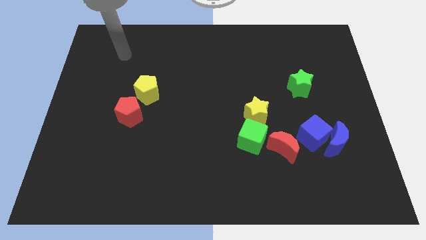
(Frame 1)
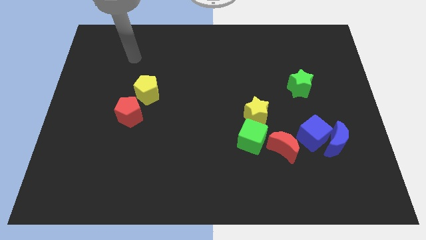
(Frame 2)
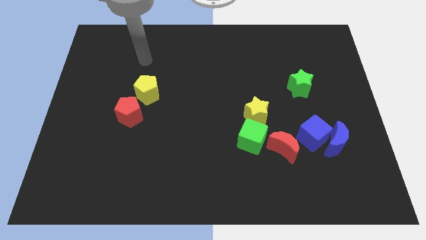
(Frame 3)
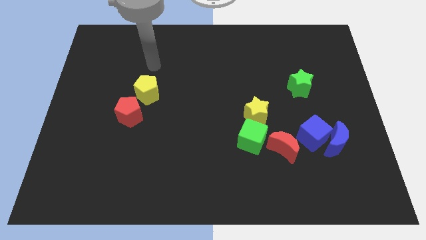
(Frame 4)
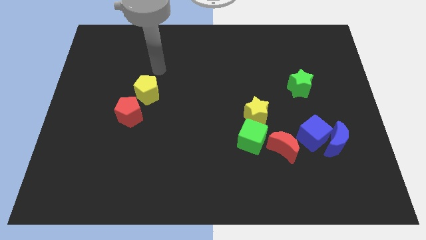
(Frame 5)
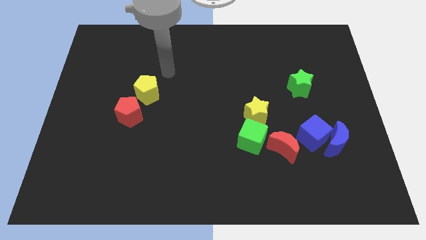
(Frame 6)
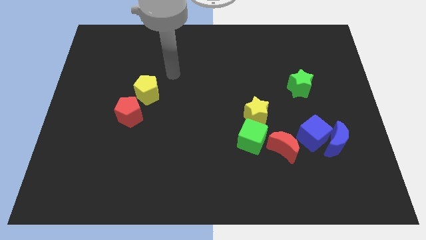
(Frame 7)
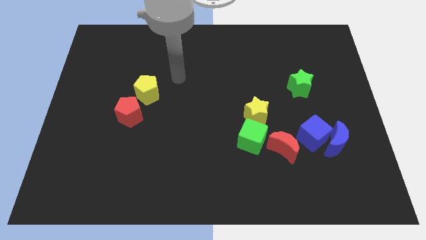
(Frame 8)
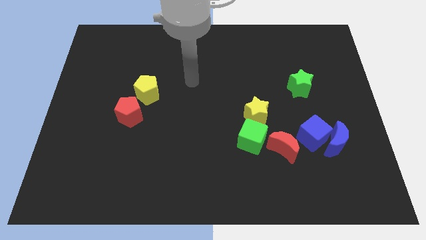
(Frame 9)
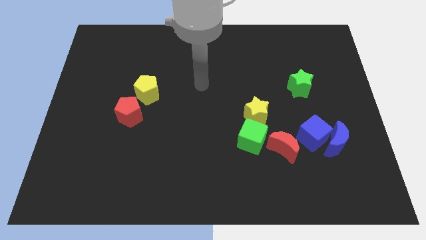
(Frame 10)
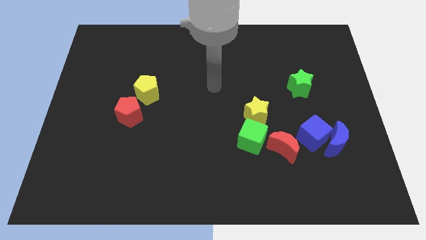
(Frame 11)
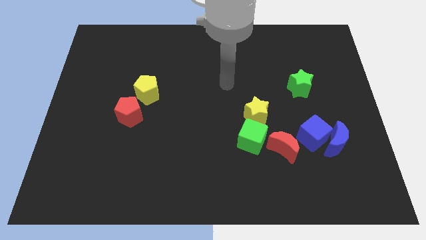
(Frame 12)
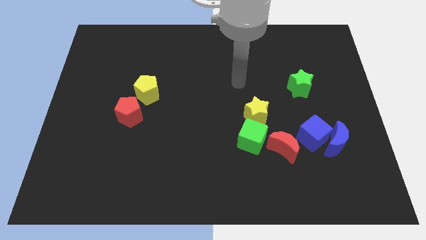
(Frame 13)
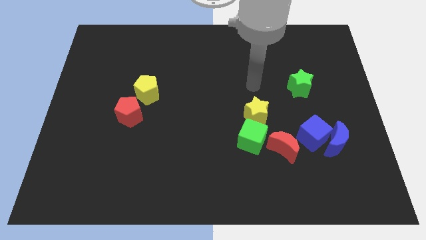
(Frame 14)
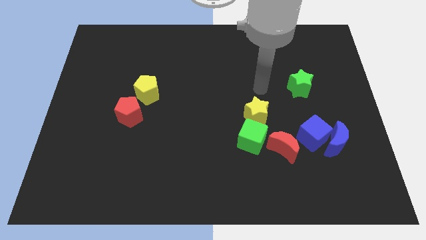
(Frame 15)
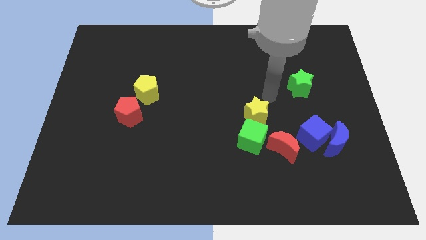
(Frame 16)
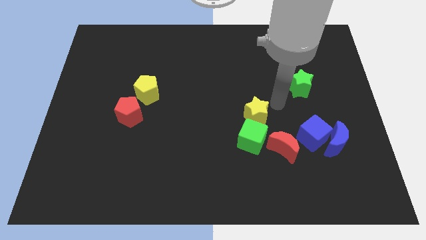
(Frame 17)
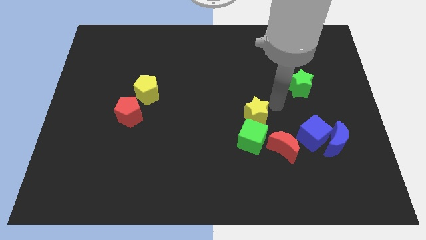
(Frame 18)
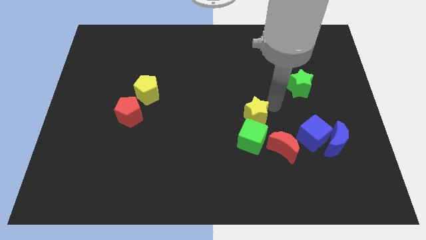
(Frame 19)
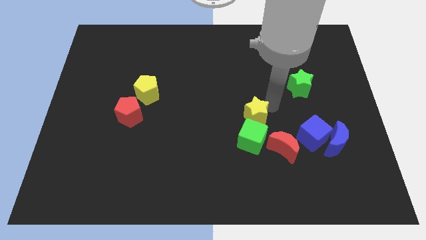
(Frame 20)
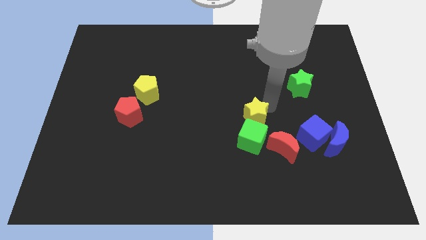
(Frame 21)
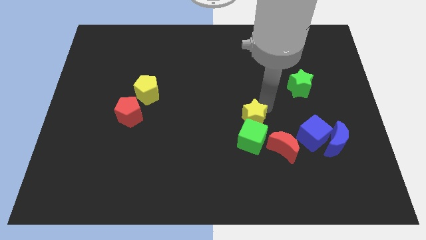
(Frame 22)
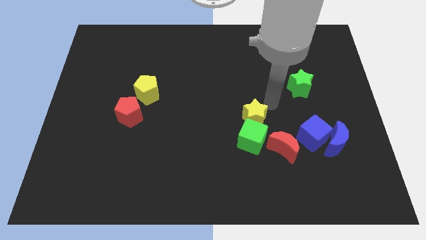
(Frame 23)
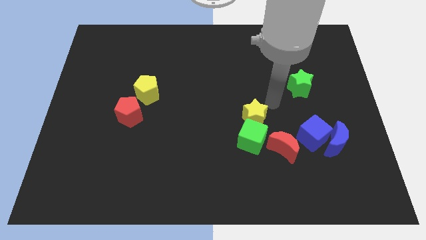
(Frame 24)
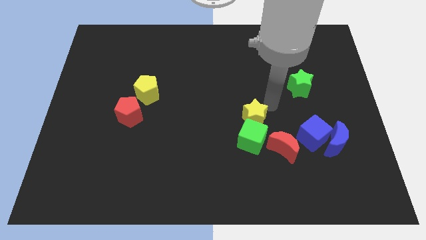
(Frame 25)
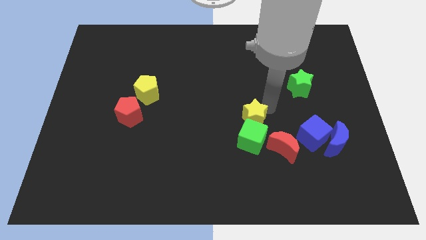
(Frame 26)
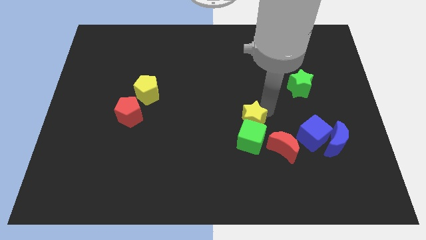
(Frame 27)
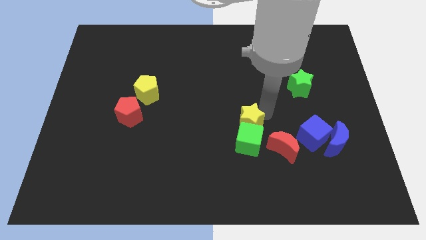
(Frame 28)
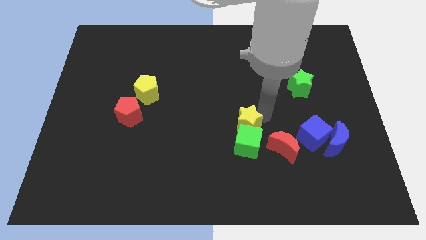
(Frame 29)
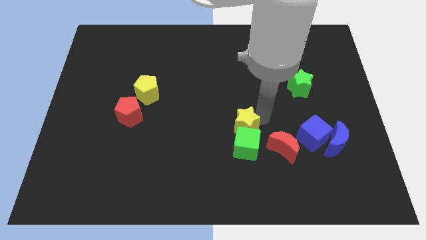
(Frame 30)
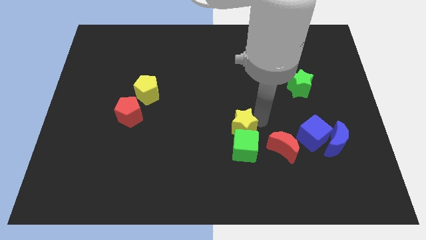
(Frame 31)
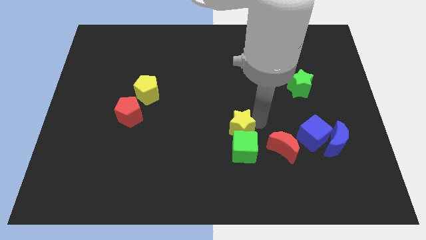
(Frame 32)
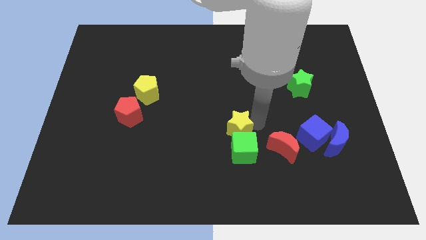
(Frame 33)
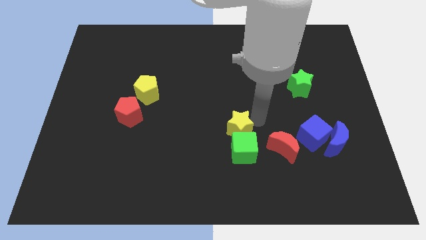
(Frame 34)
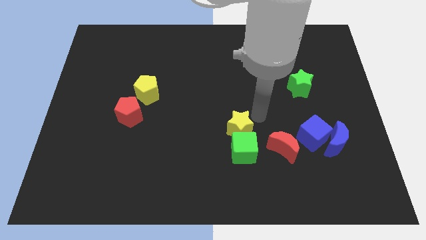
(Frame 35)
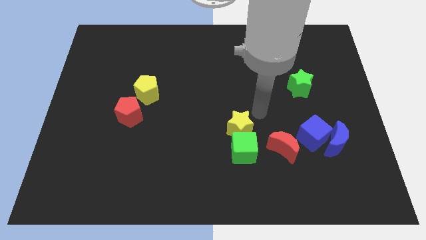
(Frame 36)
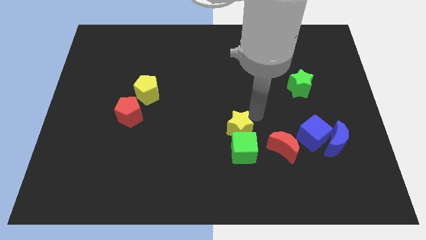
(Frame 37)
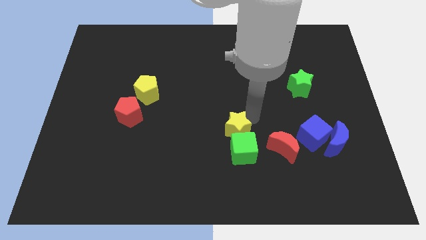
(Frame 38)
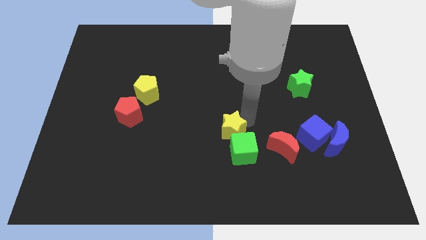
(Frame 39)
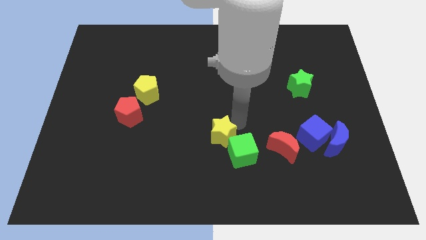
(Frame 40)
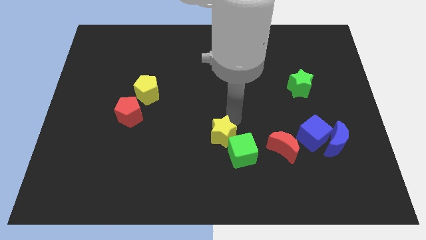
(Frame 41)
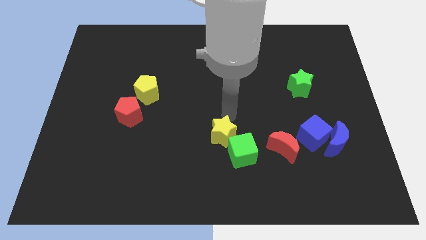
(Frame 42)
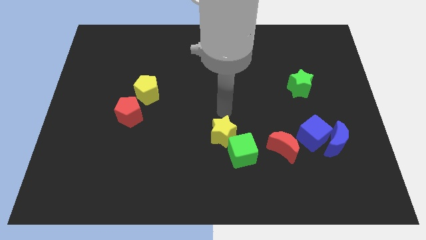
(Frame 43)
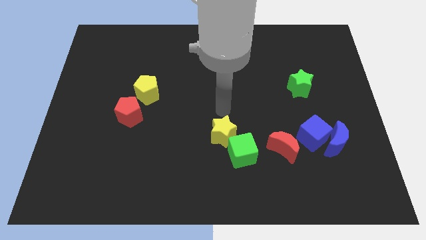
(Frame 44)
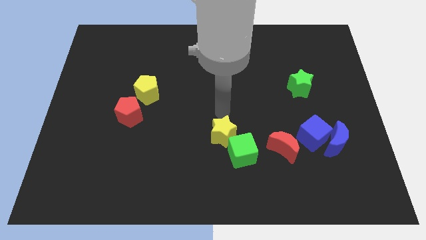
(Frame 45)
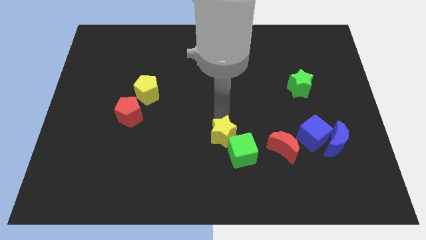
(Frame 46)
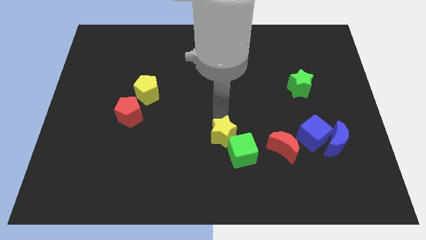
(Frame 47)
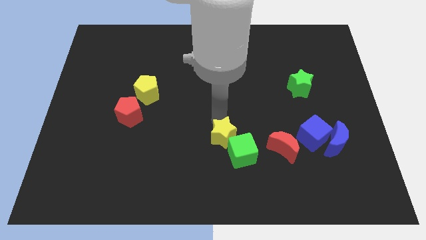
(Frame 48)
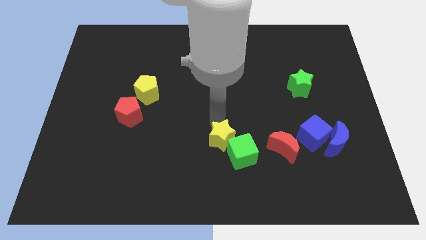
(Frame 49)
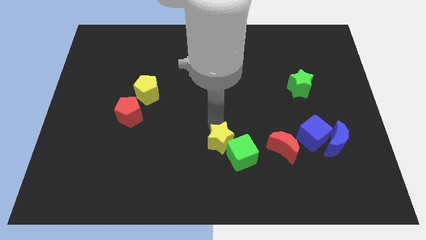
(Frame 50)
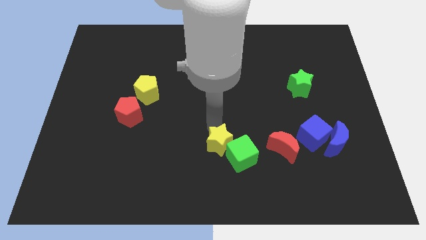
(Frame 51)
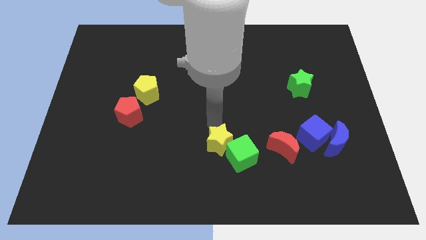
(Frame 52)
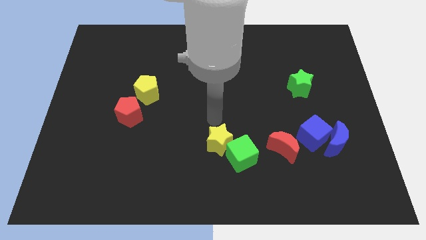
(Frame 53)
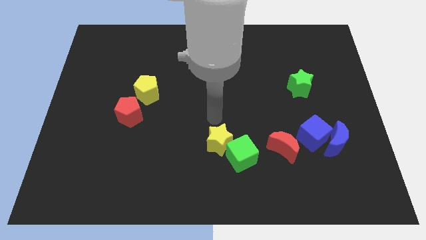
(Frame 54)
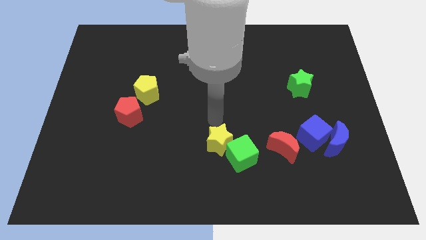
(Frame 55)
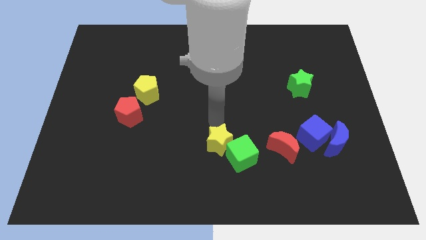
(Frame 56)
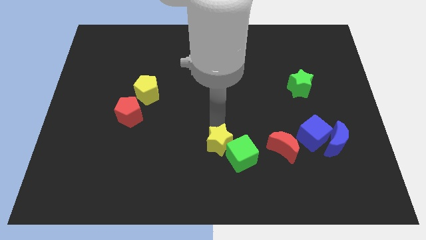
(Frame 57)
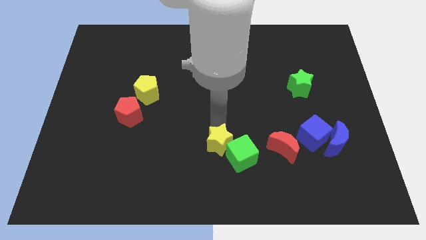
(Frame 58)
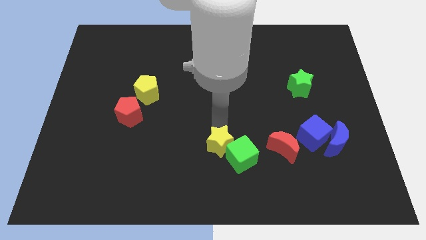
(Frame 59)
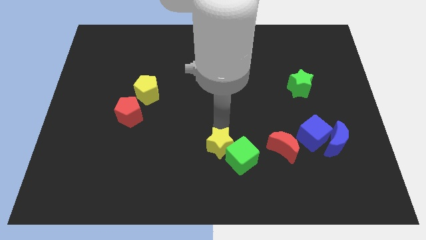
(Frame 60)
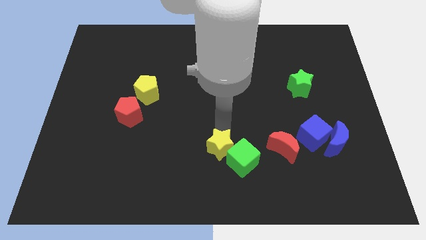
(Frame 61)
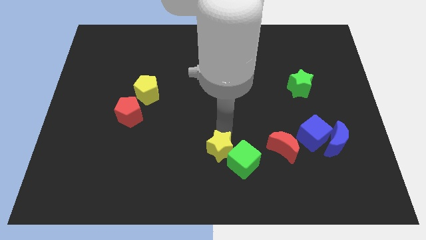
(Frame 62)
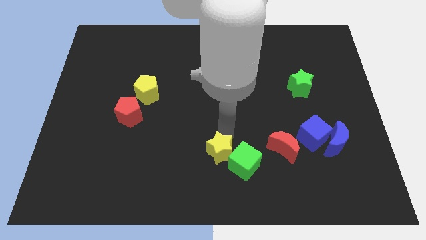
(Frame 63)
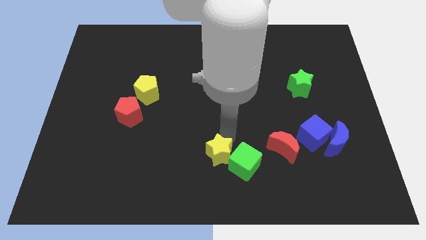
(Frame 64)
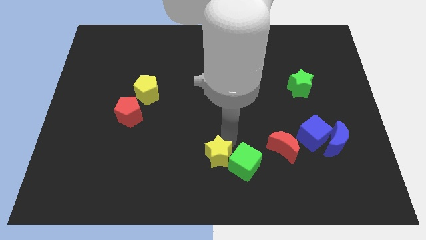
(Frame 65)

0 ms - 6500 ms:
move the yellow star to the bottom side
